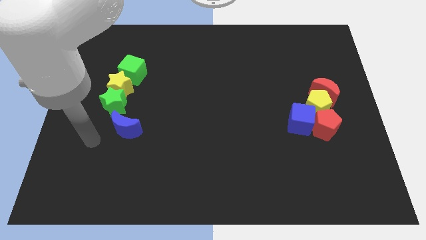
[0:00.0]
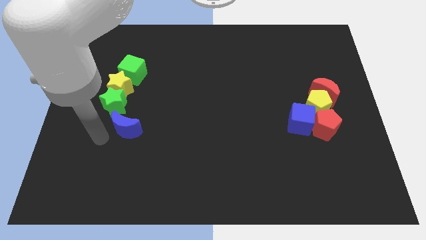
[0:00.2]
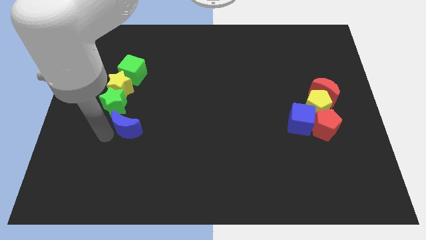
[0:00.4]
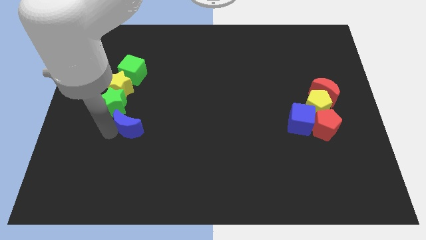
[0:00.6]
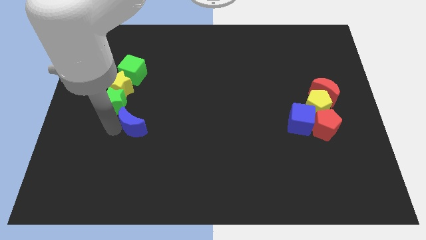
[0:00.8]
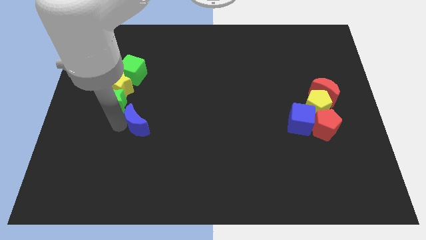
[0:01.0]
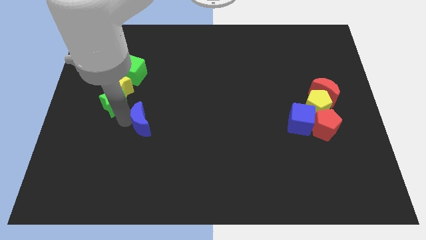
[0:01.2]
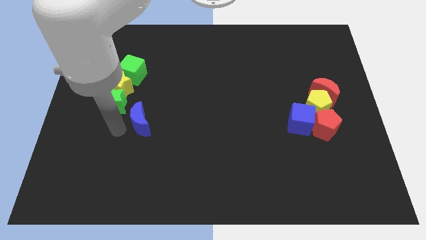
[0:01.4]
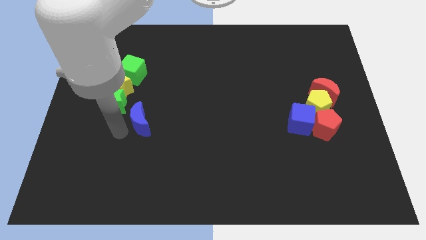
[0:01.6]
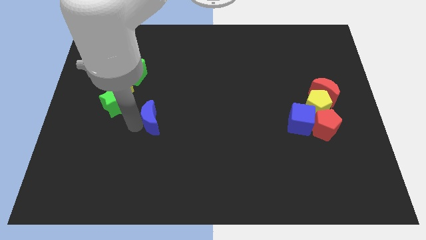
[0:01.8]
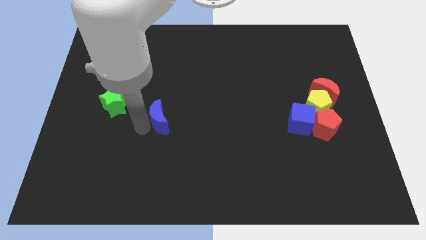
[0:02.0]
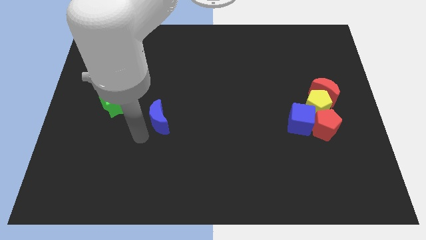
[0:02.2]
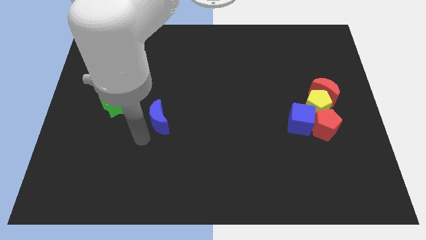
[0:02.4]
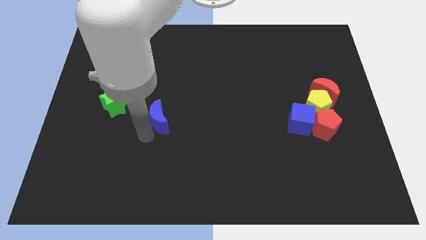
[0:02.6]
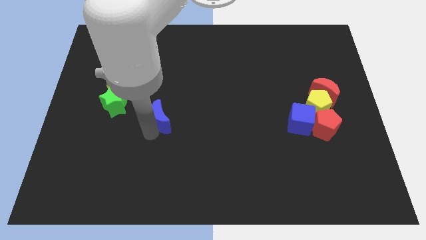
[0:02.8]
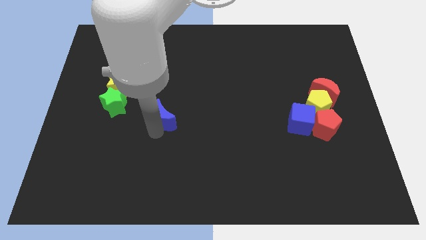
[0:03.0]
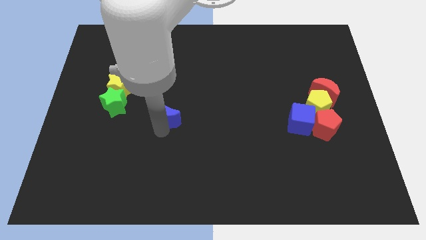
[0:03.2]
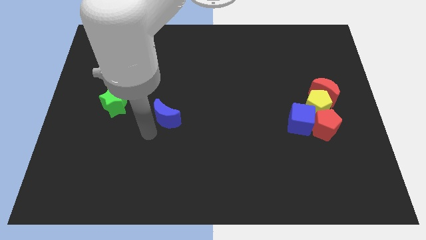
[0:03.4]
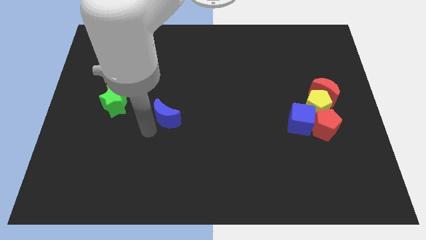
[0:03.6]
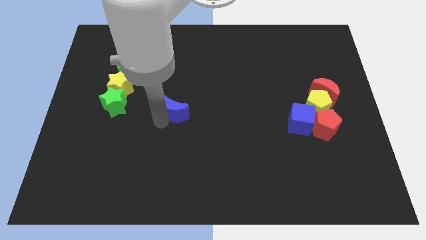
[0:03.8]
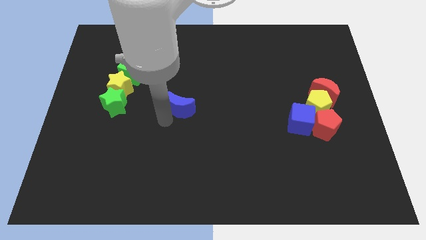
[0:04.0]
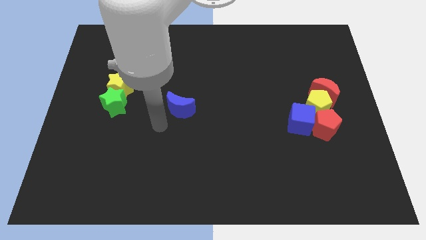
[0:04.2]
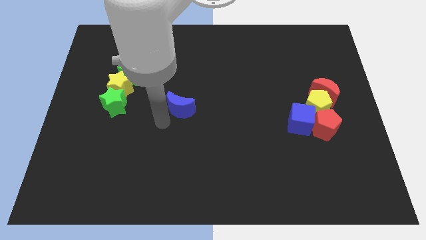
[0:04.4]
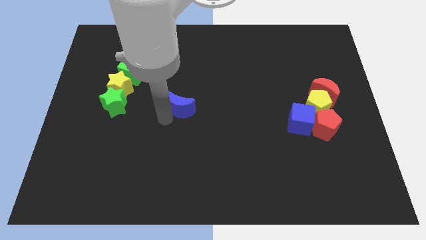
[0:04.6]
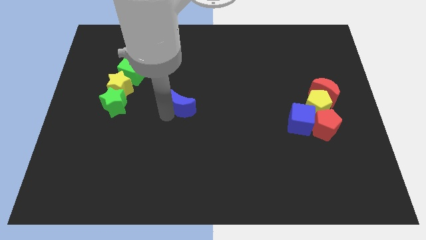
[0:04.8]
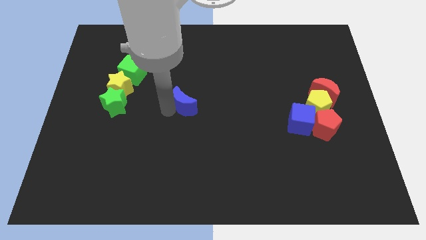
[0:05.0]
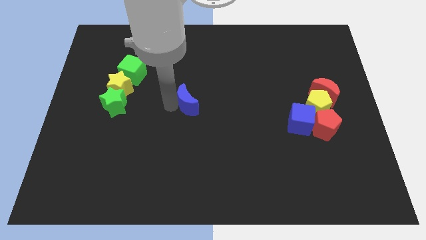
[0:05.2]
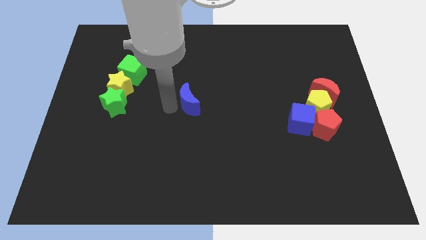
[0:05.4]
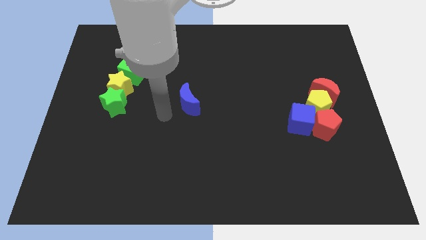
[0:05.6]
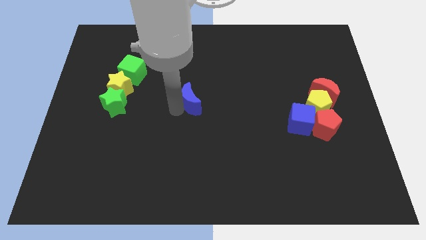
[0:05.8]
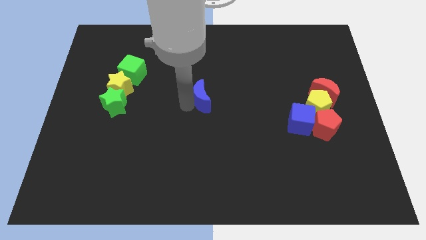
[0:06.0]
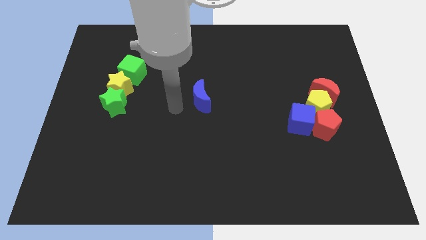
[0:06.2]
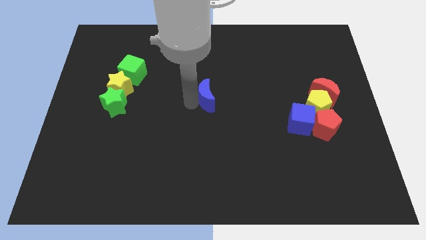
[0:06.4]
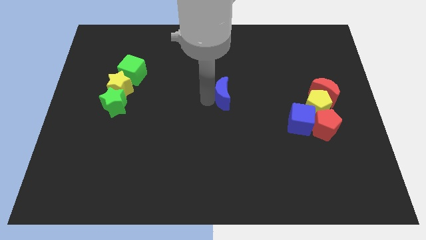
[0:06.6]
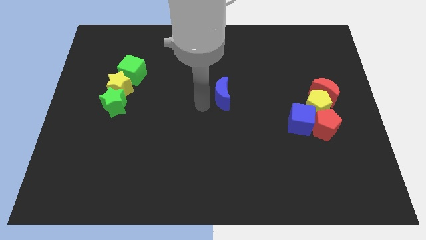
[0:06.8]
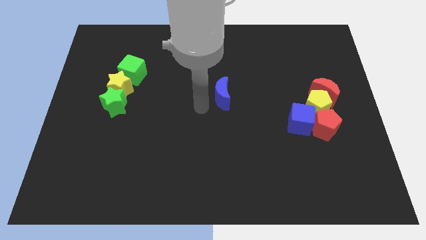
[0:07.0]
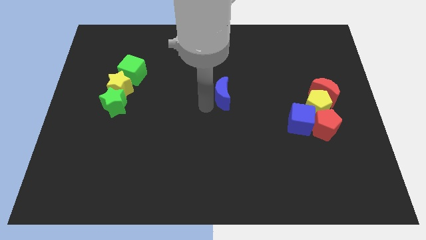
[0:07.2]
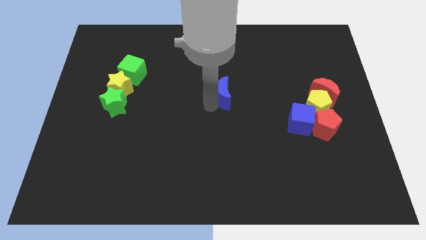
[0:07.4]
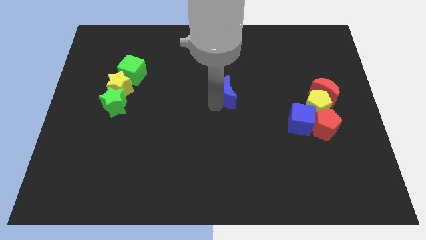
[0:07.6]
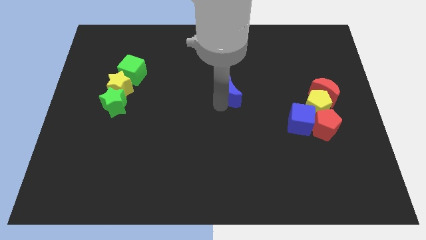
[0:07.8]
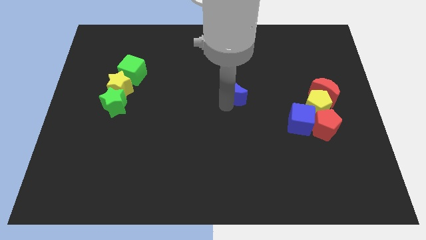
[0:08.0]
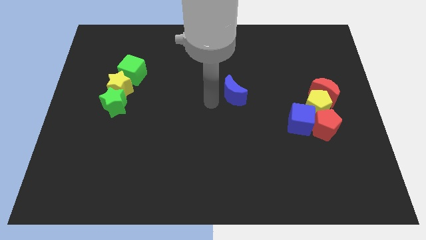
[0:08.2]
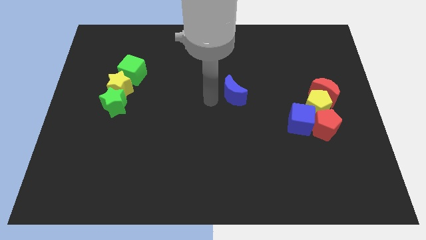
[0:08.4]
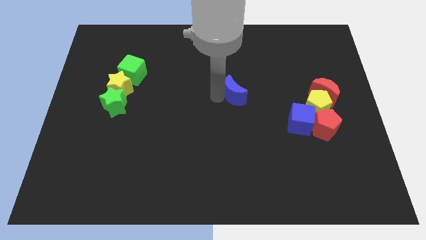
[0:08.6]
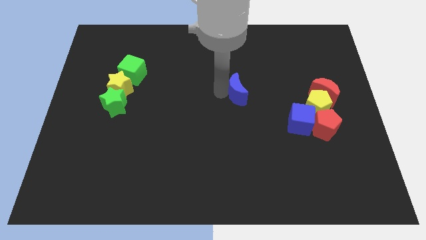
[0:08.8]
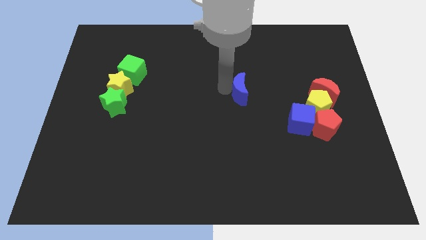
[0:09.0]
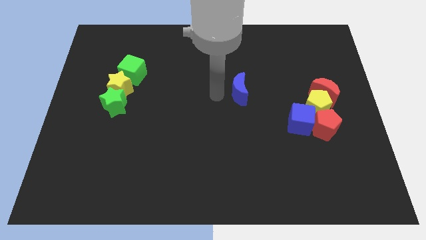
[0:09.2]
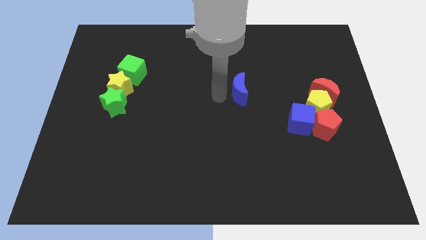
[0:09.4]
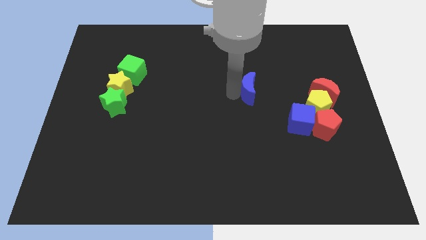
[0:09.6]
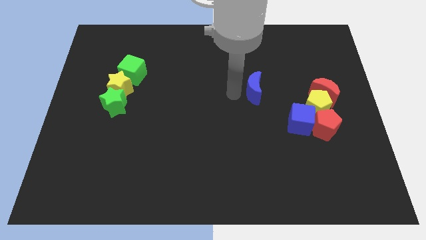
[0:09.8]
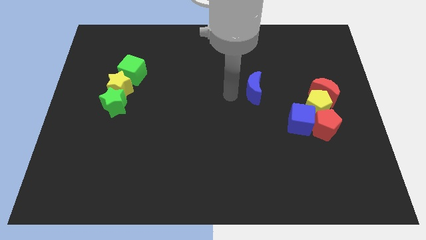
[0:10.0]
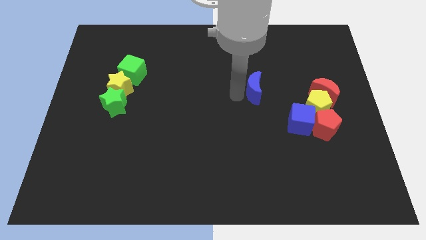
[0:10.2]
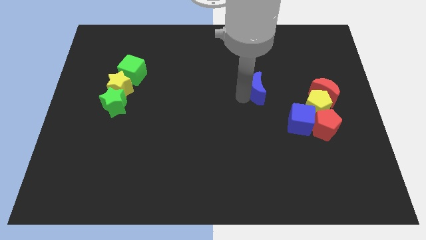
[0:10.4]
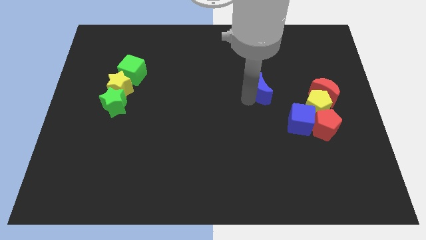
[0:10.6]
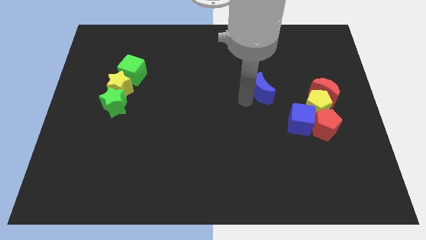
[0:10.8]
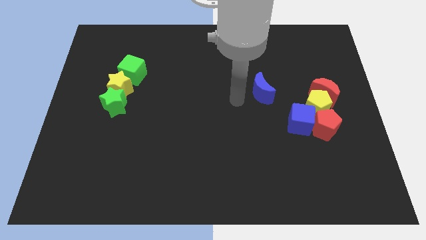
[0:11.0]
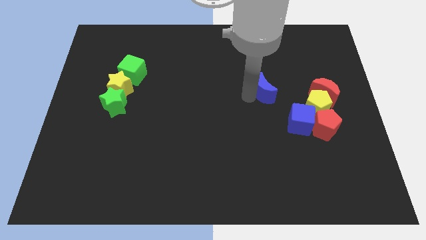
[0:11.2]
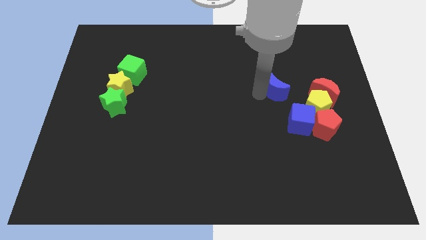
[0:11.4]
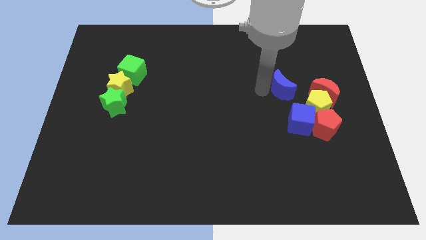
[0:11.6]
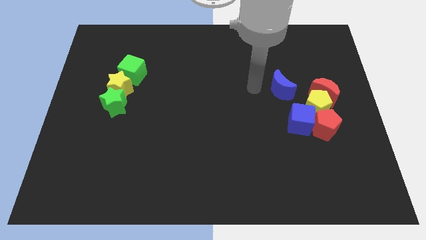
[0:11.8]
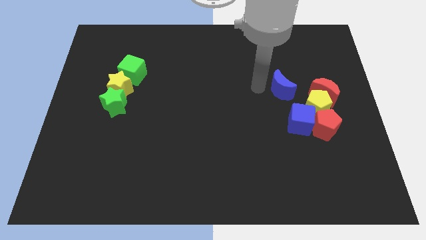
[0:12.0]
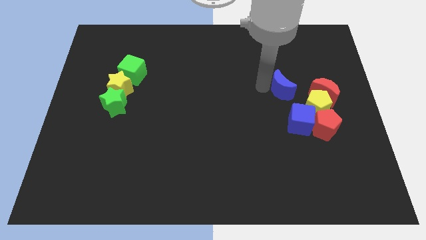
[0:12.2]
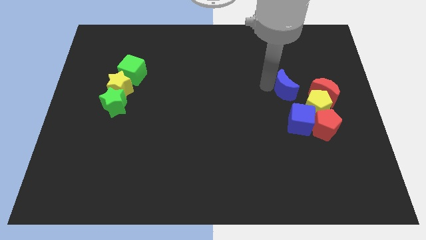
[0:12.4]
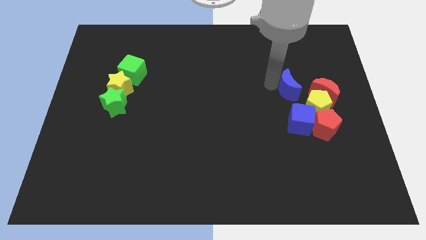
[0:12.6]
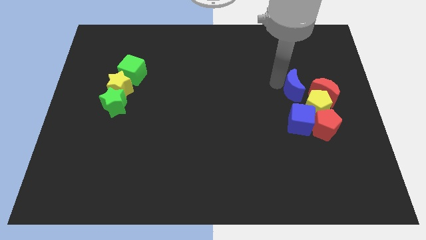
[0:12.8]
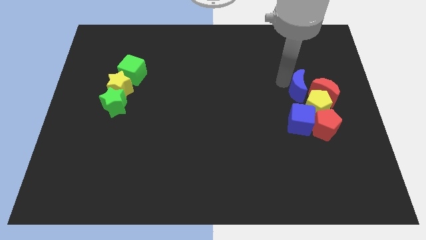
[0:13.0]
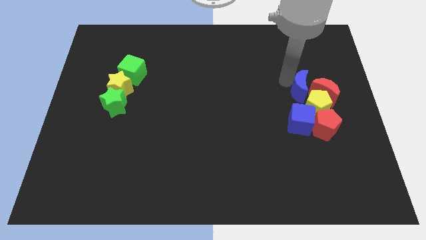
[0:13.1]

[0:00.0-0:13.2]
slide the blue moon next to the red moon

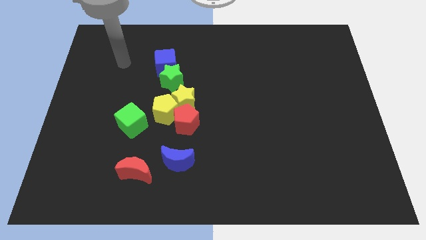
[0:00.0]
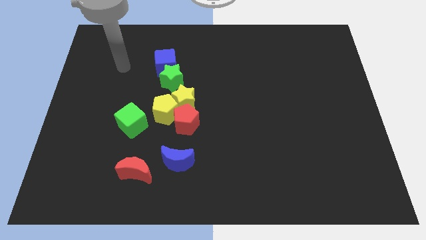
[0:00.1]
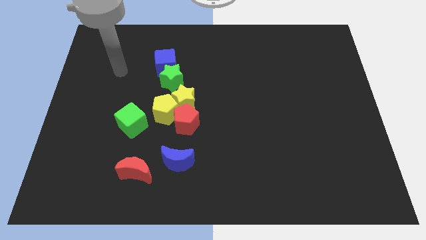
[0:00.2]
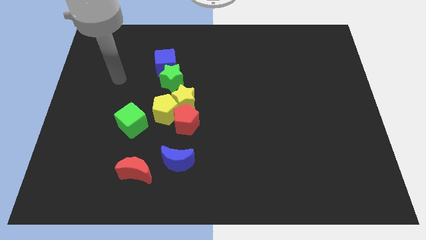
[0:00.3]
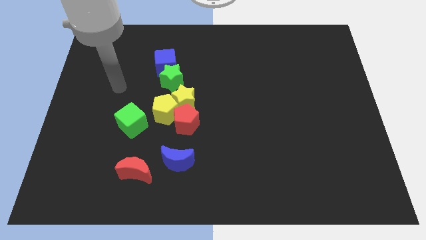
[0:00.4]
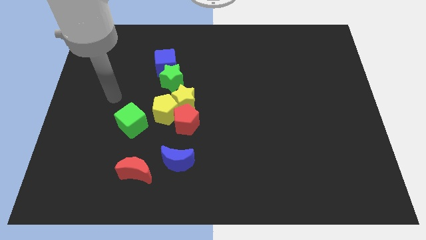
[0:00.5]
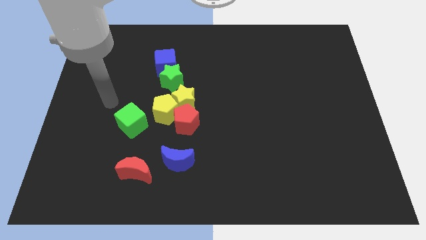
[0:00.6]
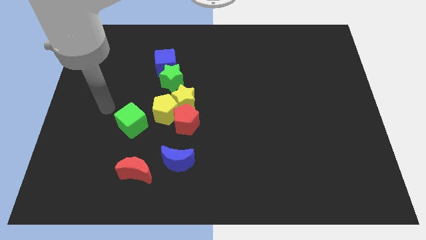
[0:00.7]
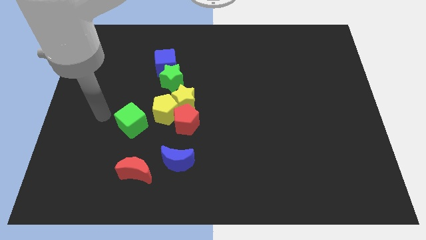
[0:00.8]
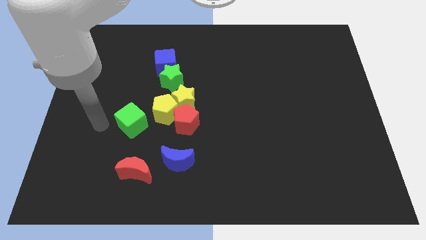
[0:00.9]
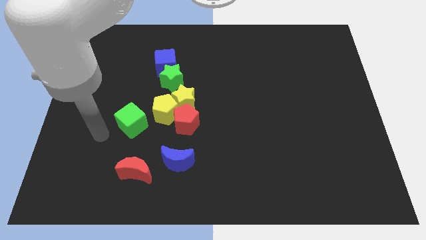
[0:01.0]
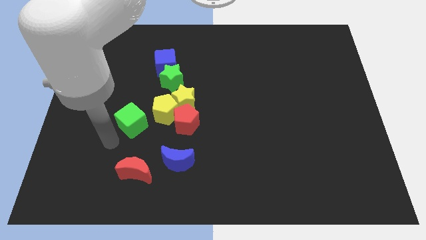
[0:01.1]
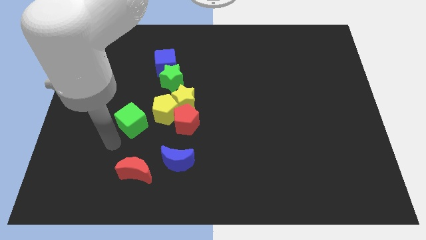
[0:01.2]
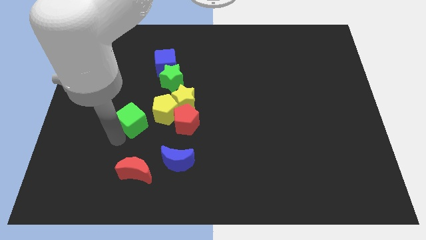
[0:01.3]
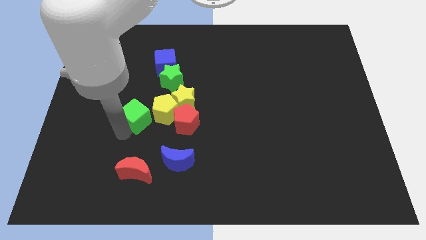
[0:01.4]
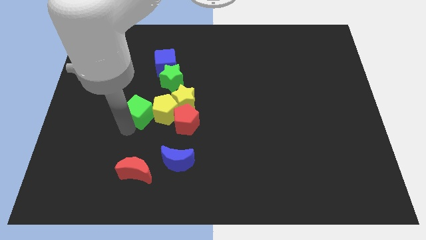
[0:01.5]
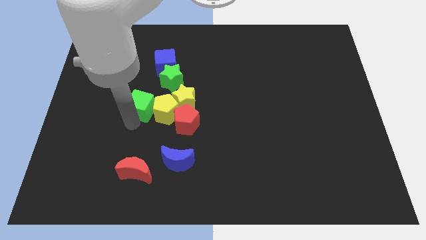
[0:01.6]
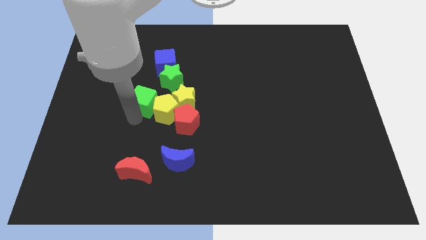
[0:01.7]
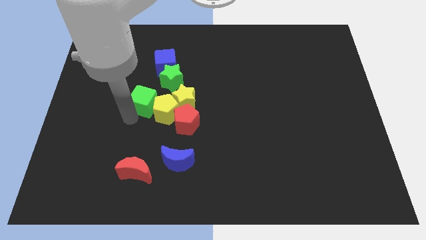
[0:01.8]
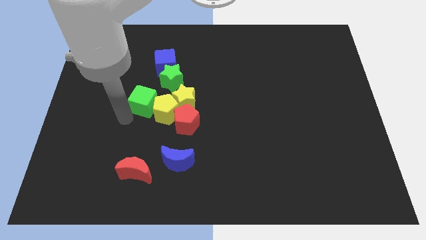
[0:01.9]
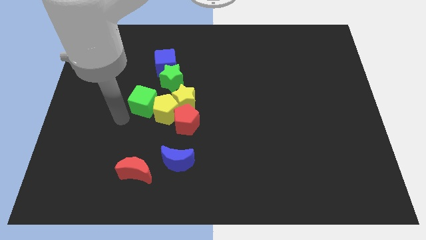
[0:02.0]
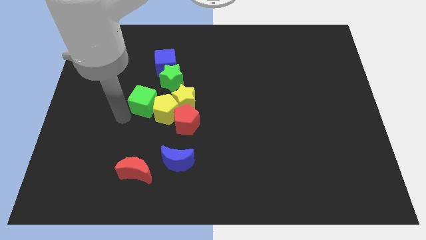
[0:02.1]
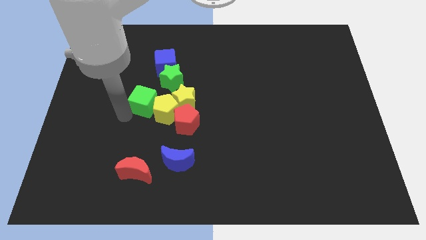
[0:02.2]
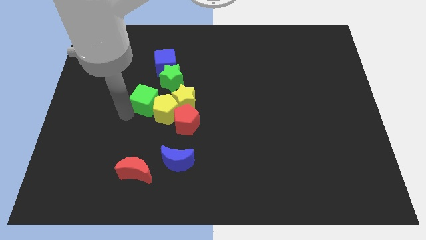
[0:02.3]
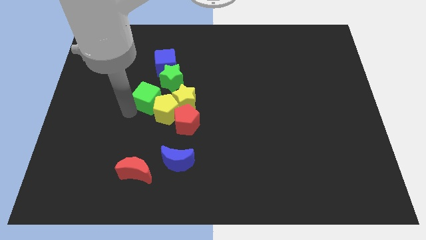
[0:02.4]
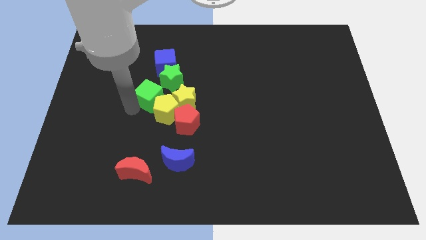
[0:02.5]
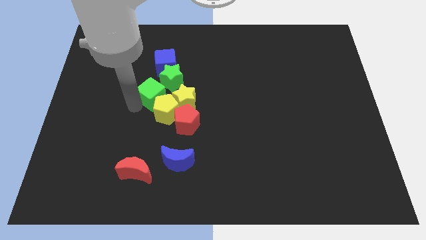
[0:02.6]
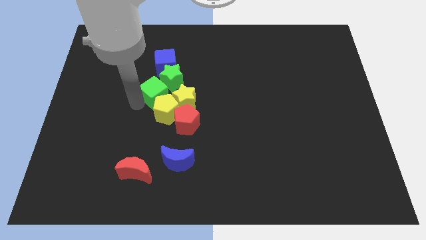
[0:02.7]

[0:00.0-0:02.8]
slide the green cube to the green star
